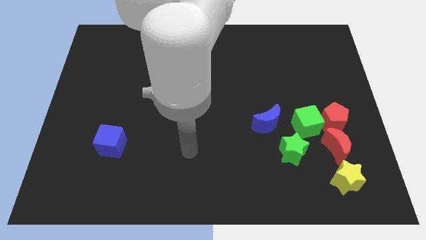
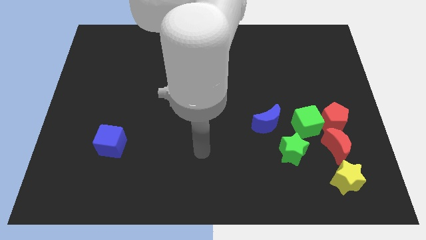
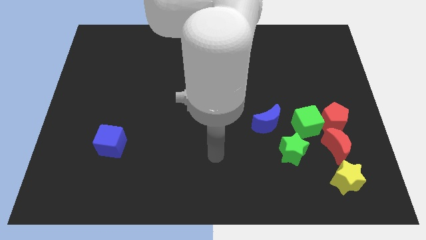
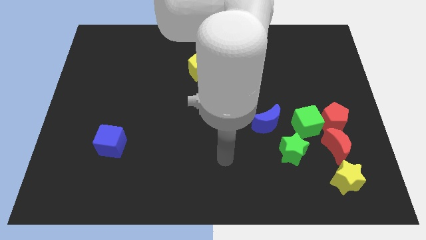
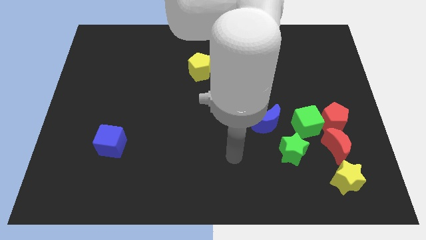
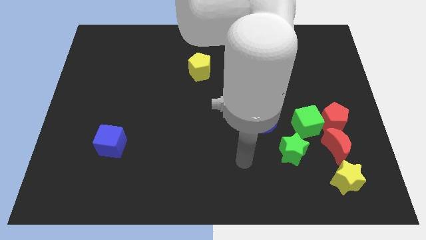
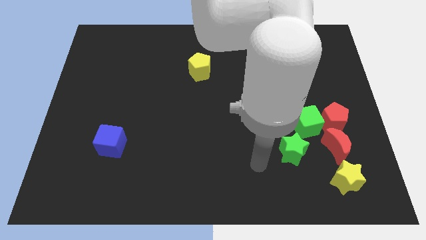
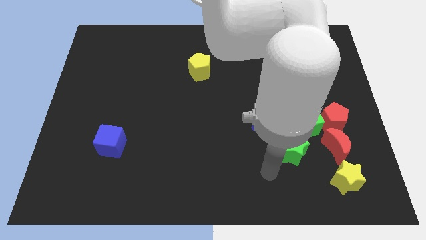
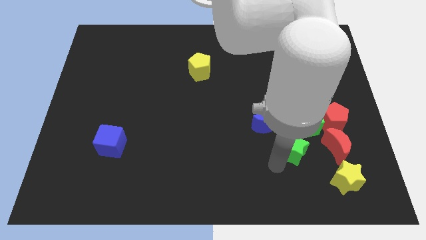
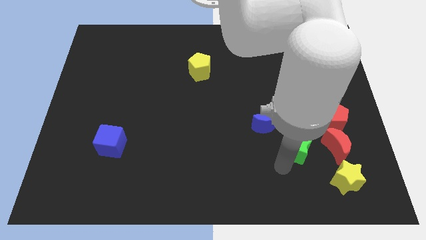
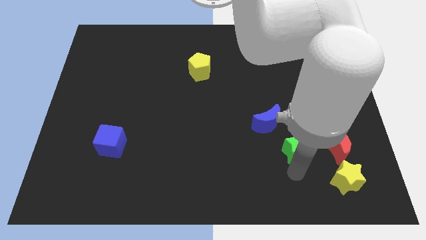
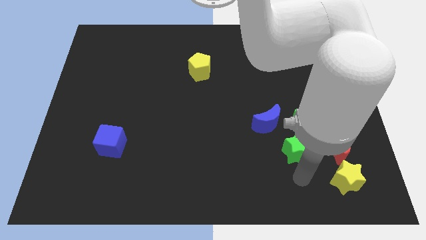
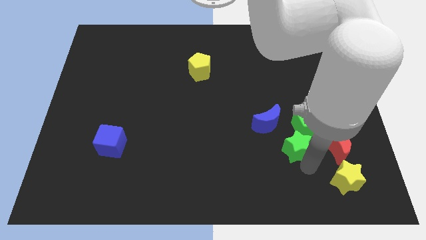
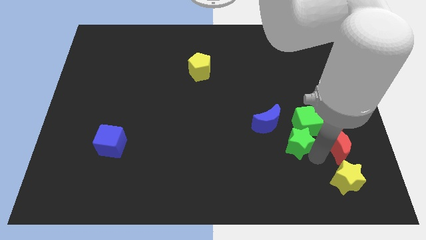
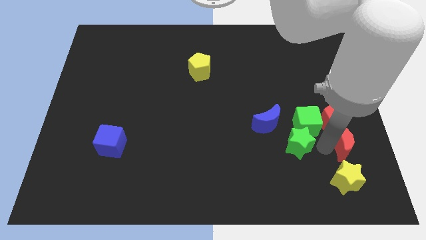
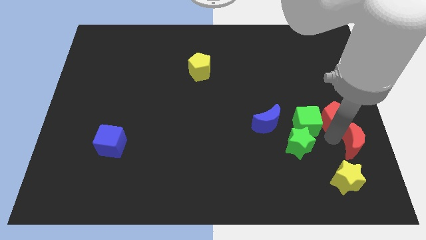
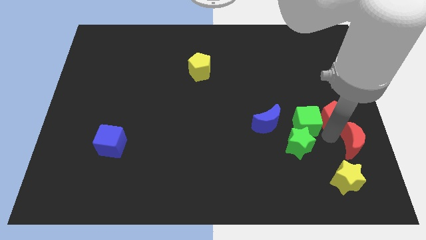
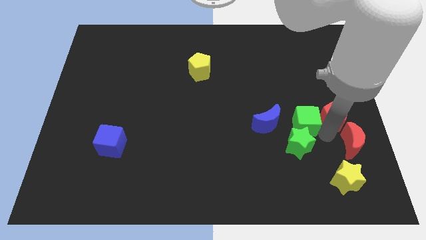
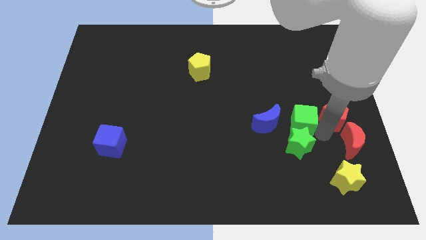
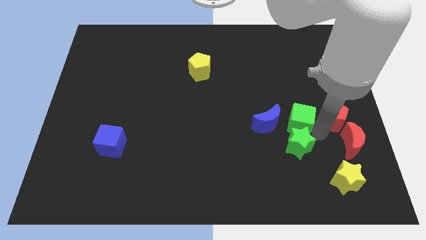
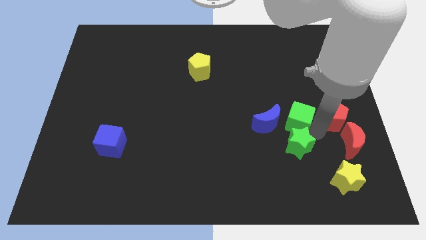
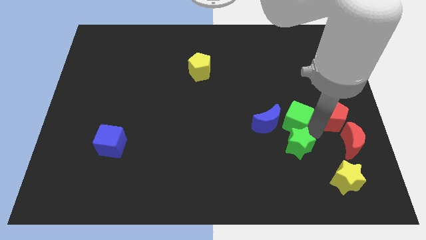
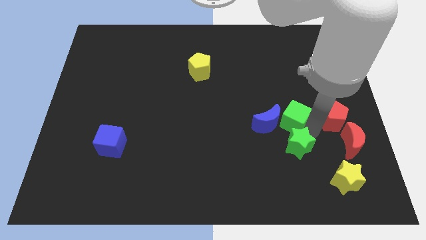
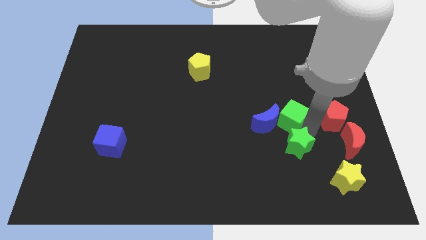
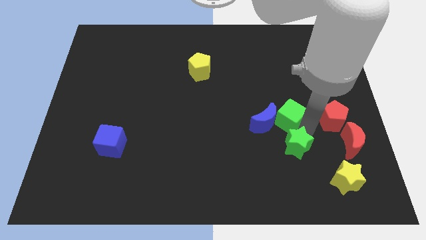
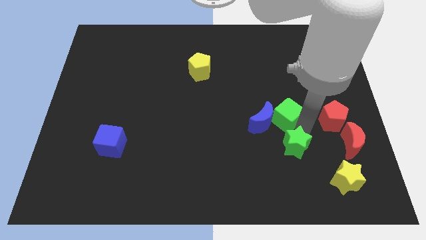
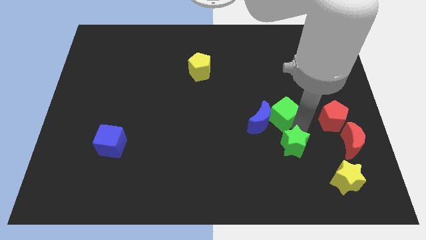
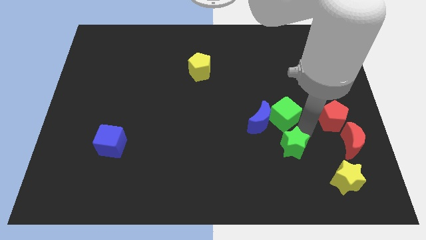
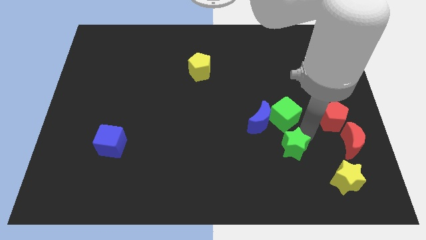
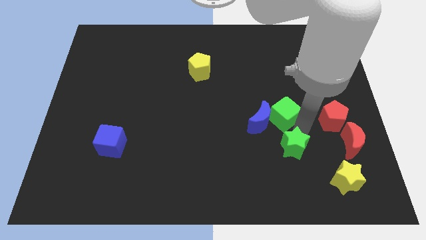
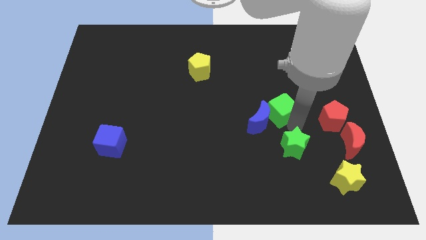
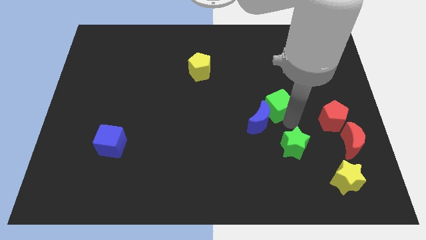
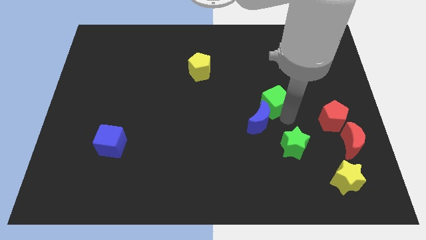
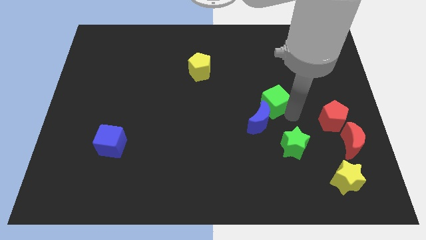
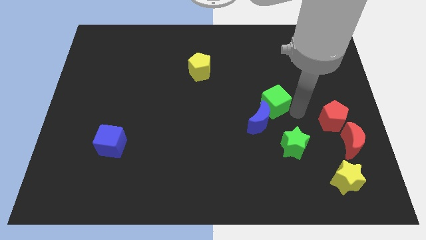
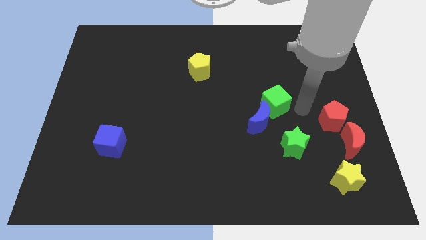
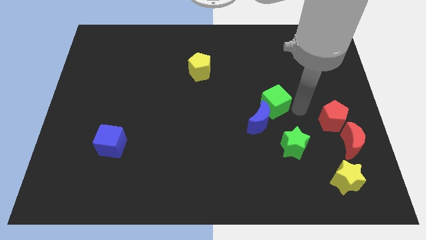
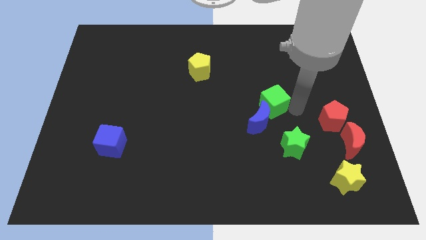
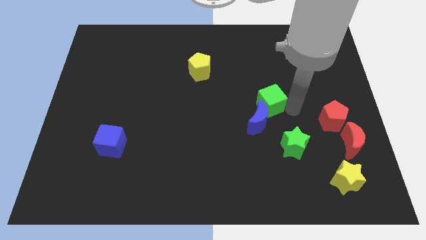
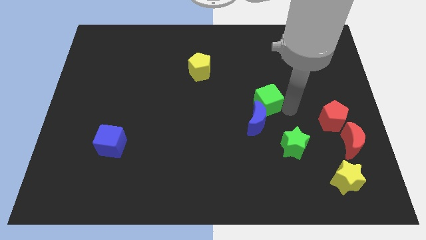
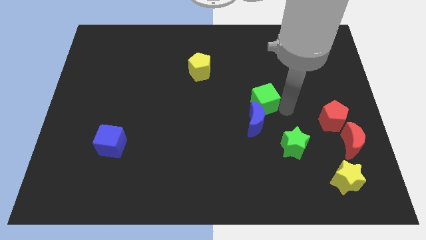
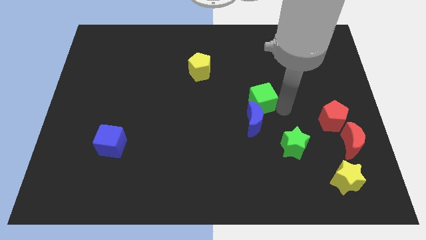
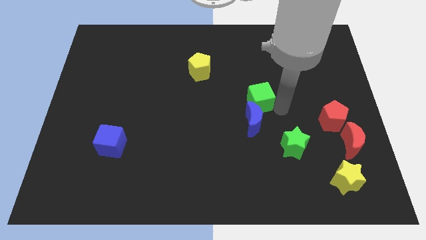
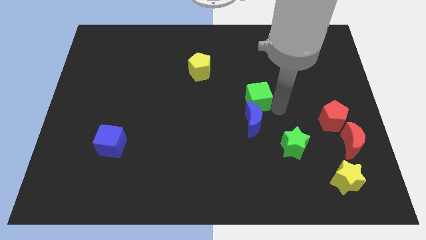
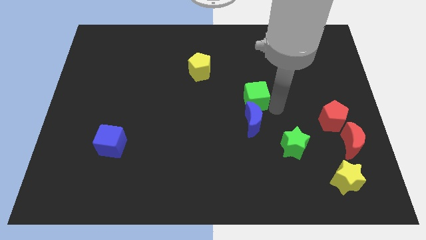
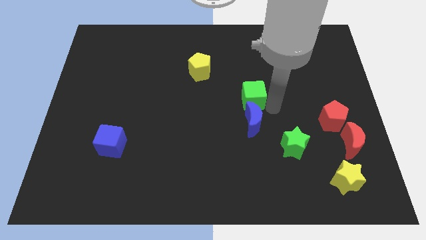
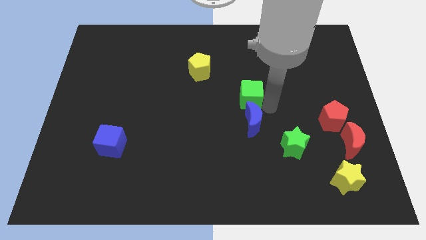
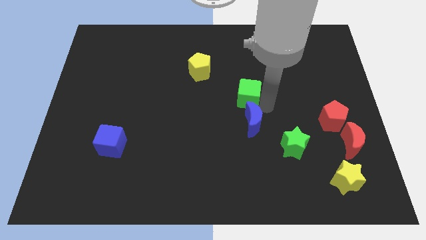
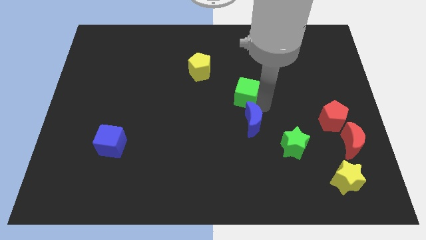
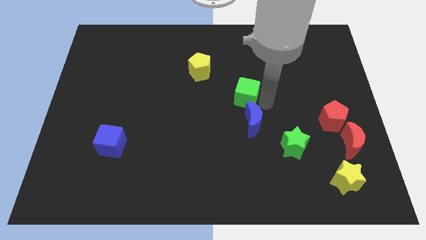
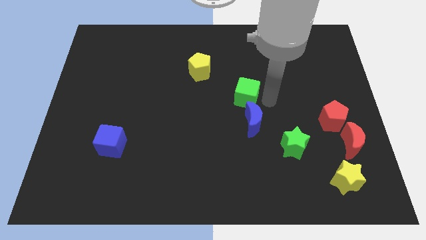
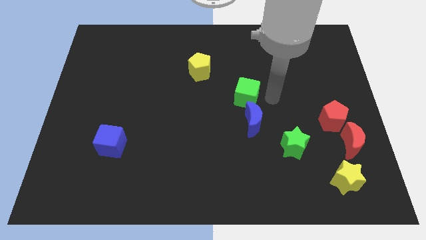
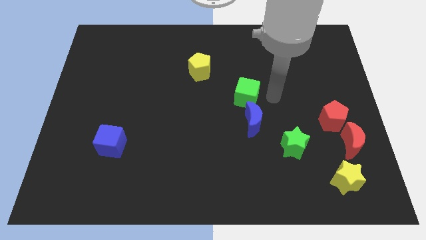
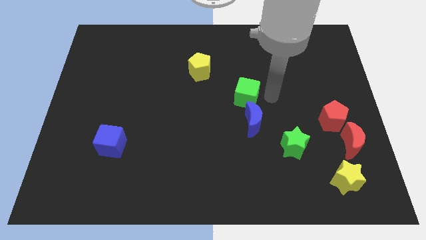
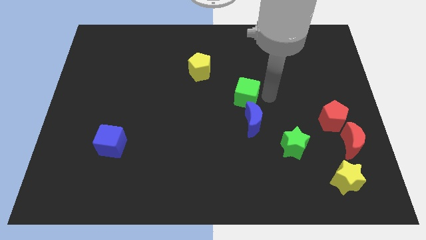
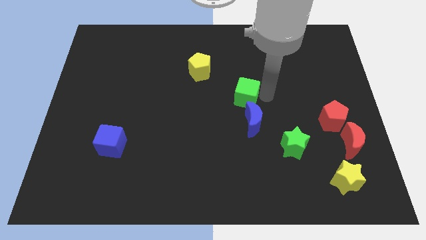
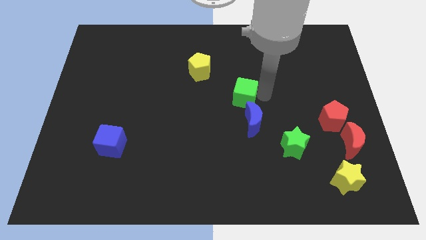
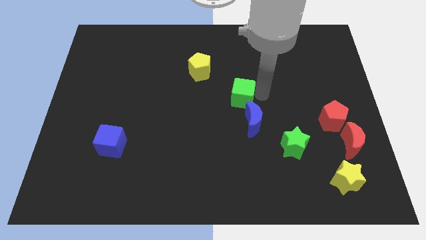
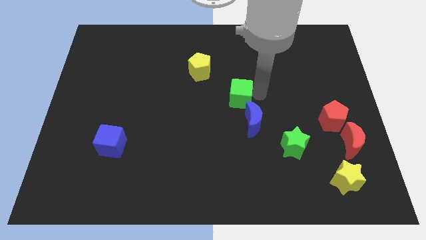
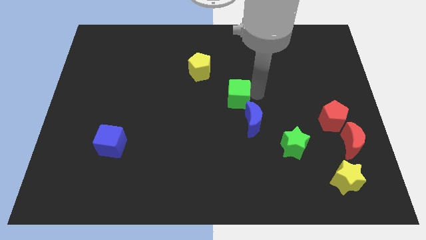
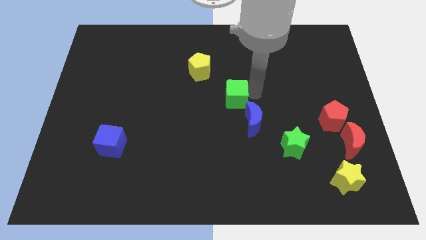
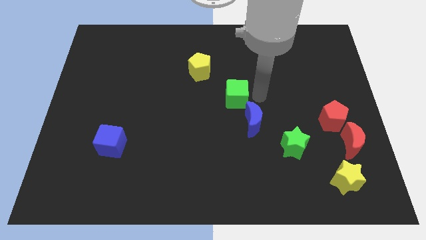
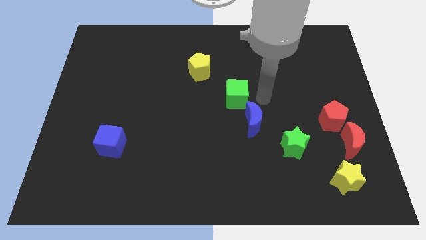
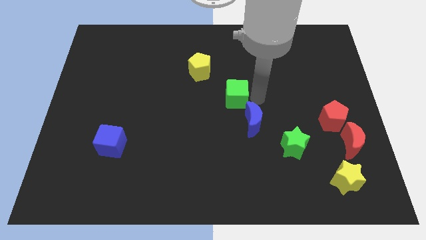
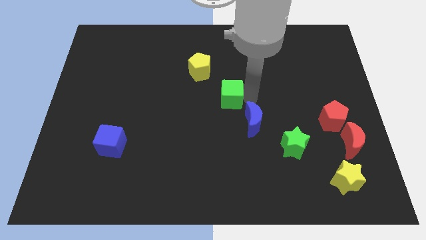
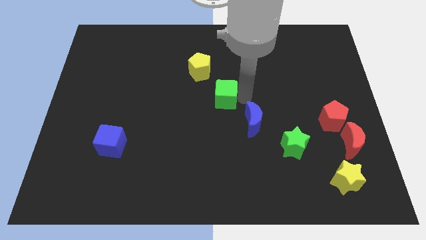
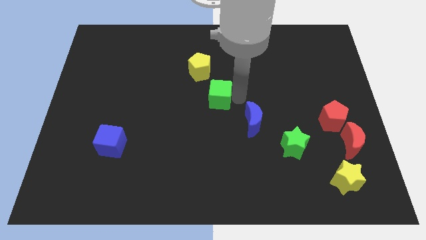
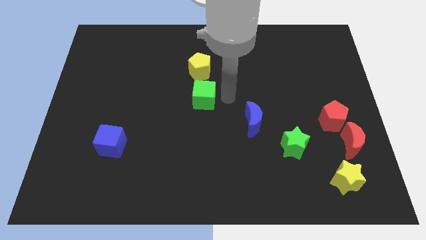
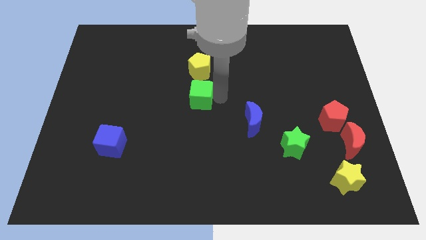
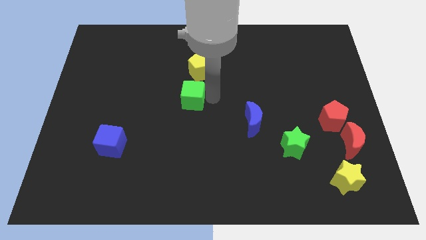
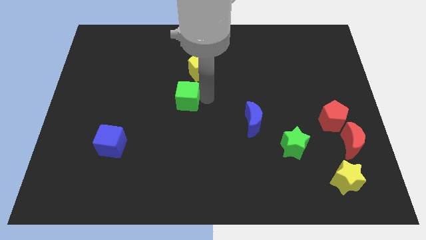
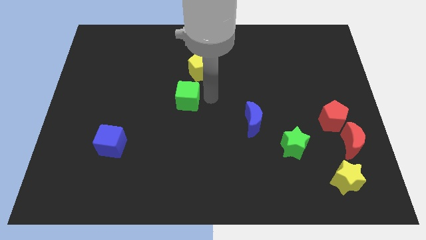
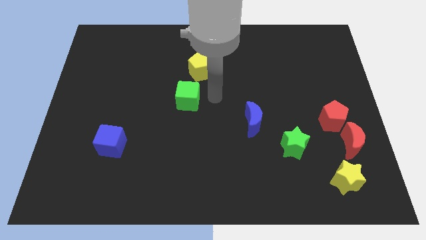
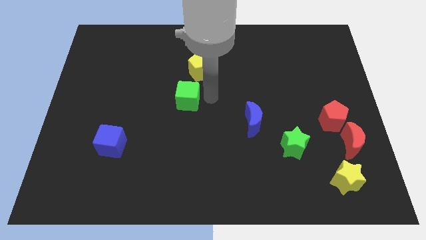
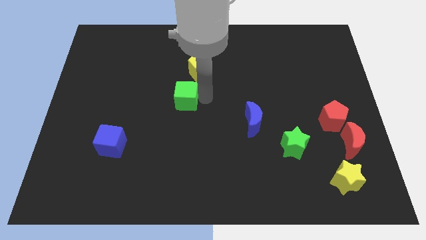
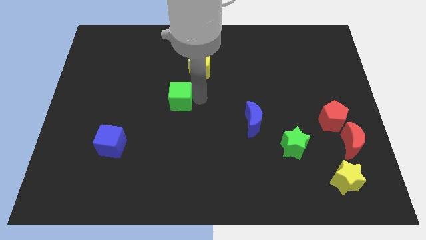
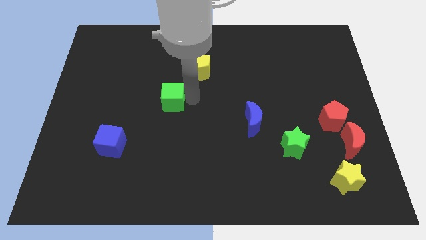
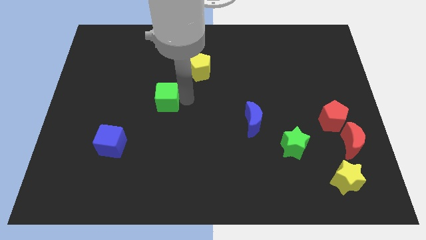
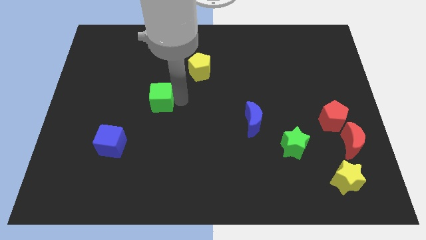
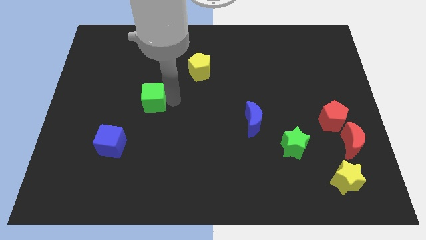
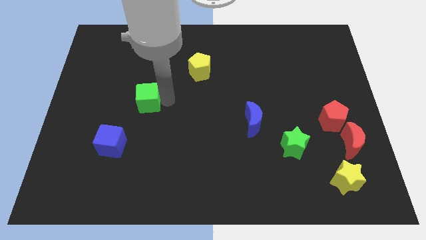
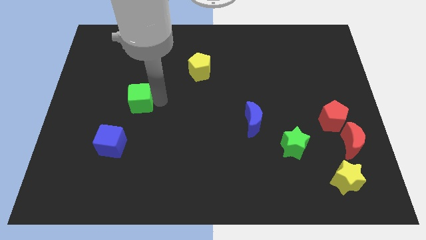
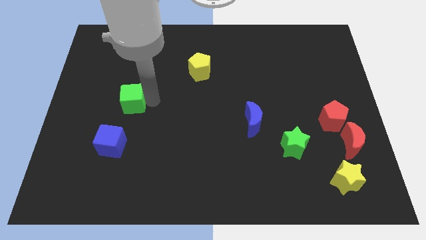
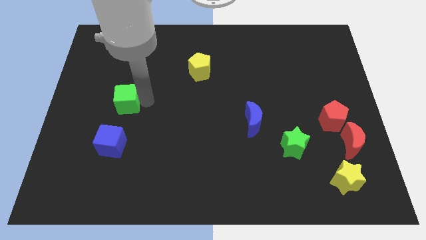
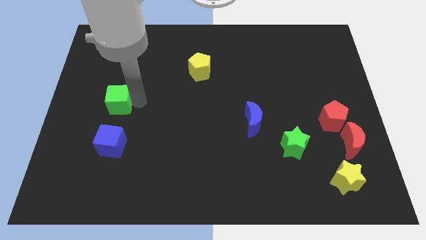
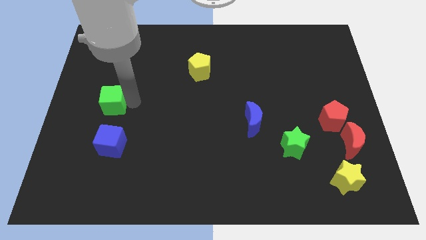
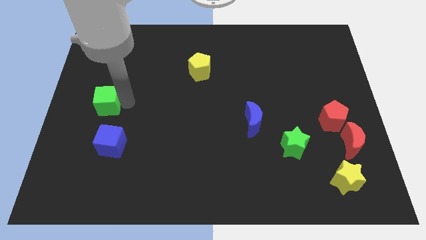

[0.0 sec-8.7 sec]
slide the green cube to the left side of the board
